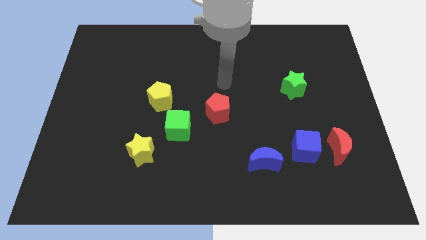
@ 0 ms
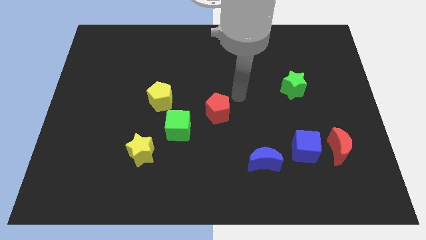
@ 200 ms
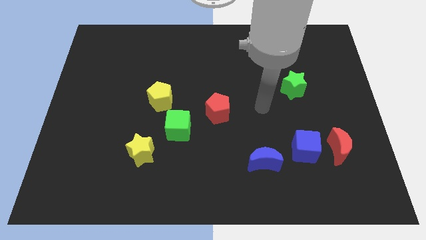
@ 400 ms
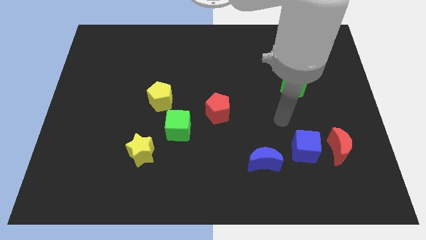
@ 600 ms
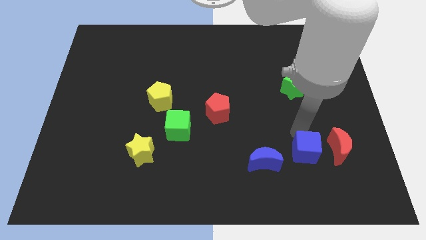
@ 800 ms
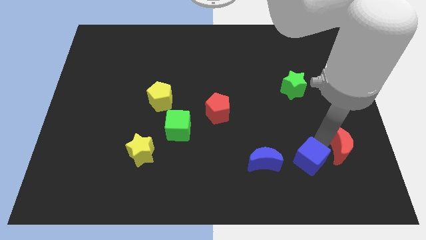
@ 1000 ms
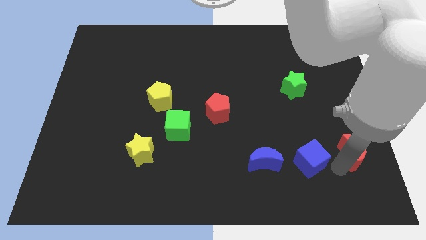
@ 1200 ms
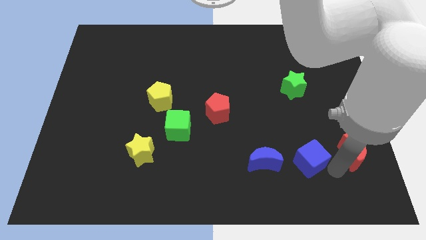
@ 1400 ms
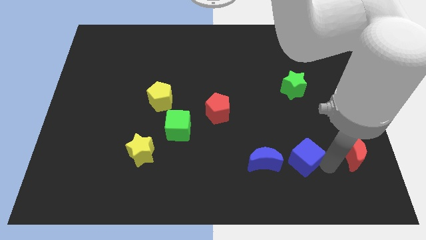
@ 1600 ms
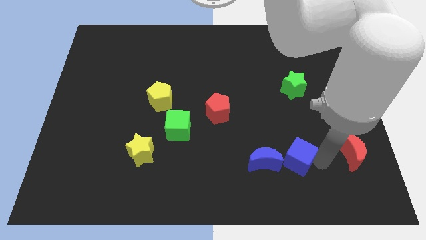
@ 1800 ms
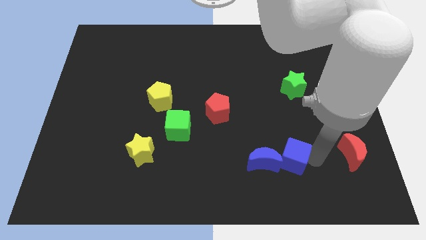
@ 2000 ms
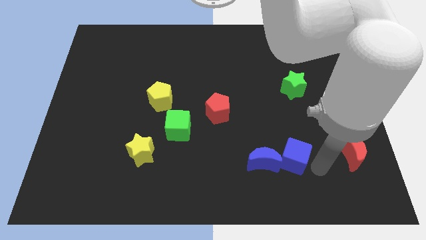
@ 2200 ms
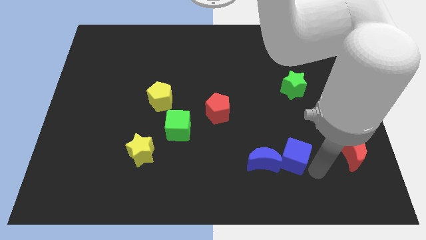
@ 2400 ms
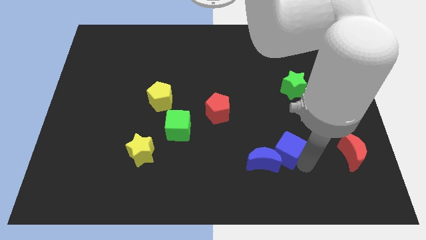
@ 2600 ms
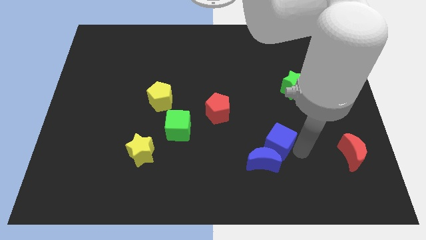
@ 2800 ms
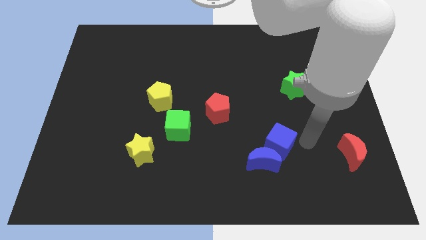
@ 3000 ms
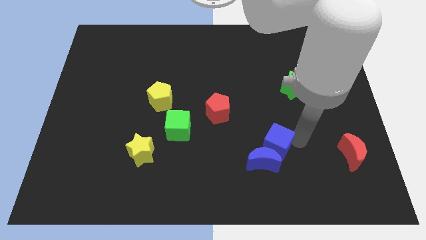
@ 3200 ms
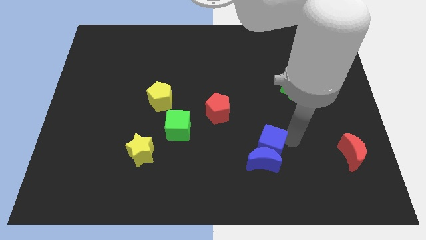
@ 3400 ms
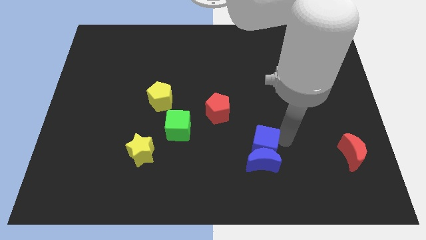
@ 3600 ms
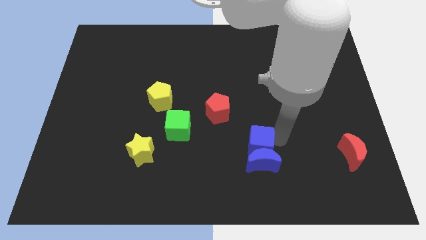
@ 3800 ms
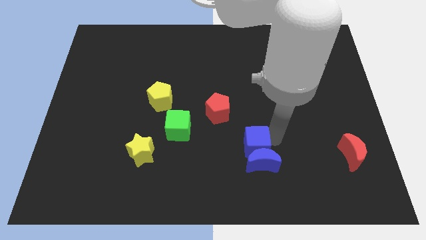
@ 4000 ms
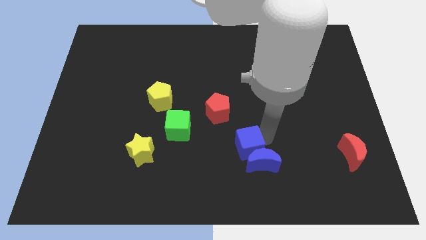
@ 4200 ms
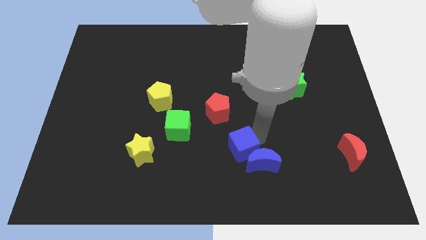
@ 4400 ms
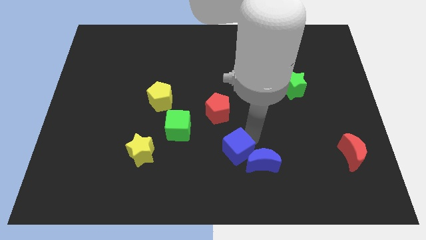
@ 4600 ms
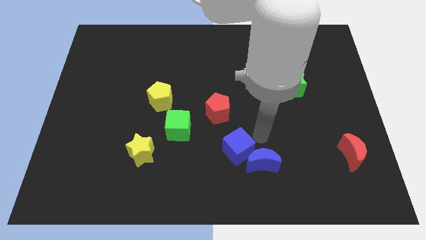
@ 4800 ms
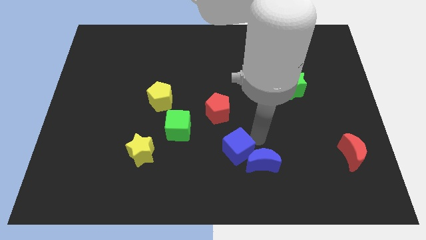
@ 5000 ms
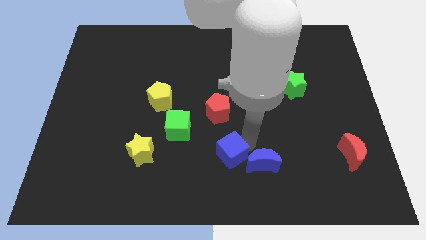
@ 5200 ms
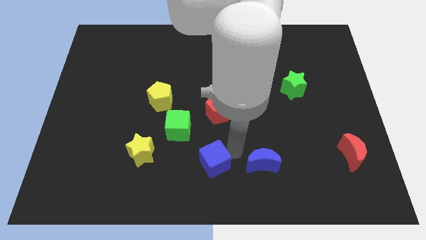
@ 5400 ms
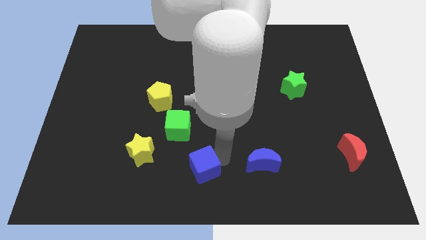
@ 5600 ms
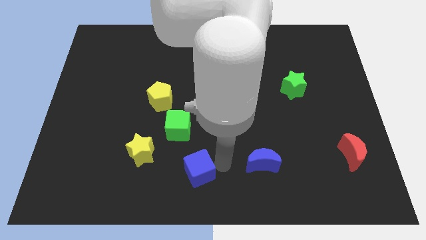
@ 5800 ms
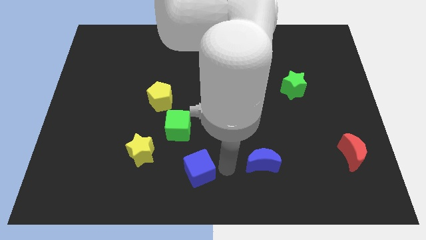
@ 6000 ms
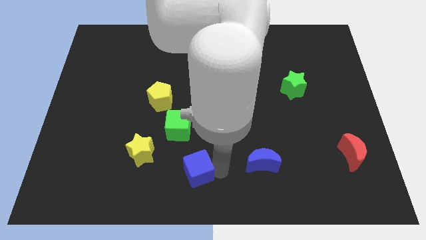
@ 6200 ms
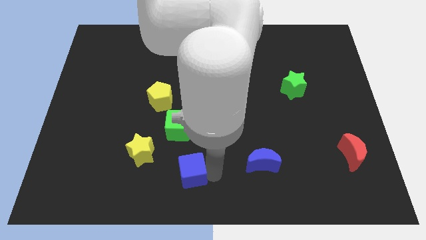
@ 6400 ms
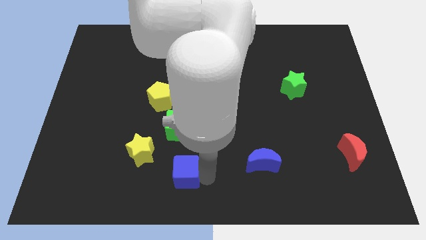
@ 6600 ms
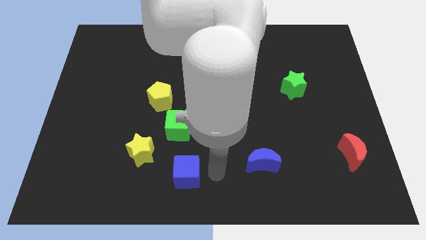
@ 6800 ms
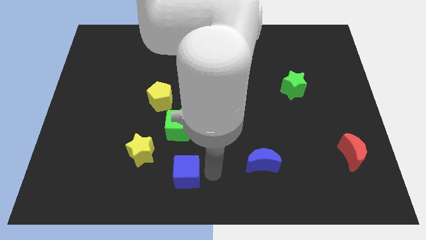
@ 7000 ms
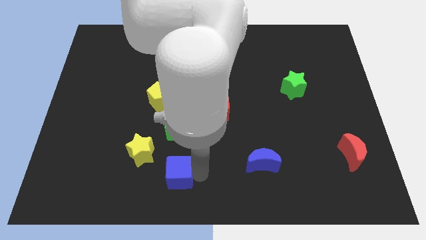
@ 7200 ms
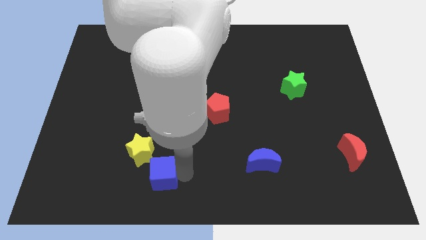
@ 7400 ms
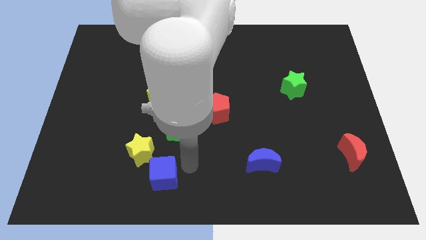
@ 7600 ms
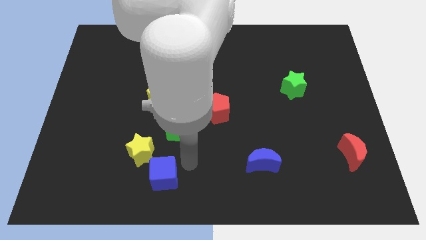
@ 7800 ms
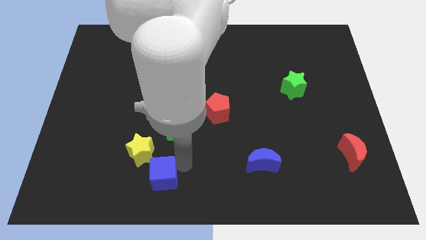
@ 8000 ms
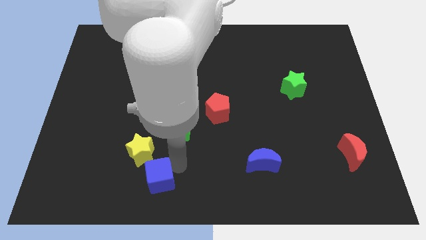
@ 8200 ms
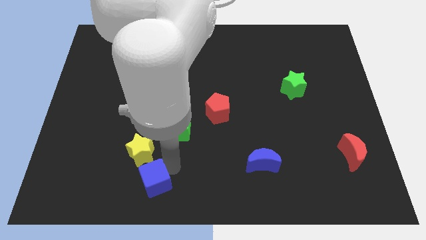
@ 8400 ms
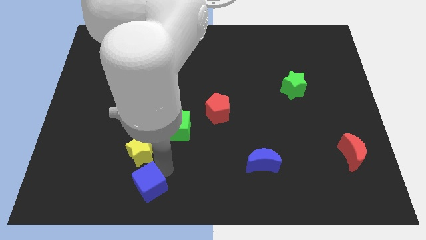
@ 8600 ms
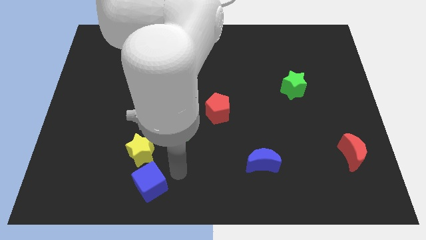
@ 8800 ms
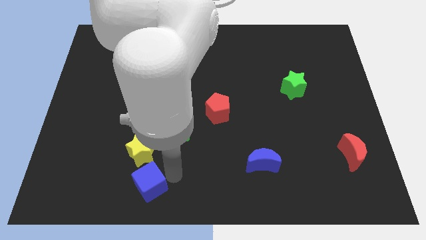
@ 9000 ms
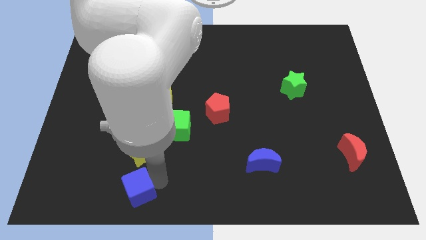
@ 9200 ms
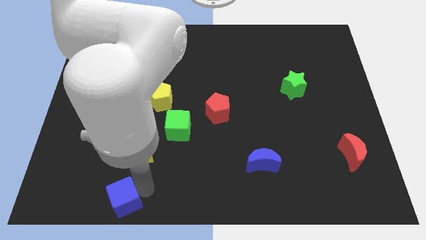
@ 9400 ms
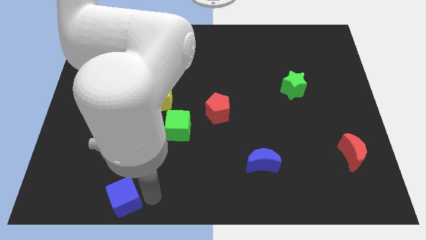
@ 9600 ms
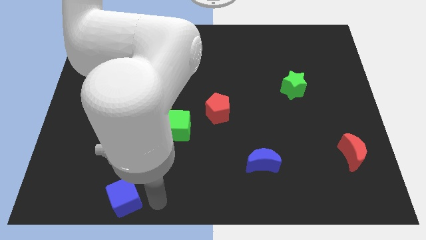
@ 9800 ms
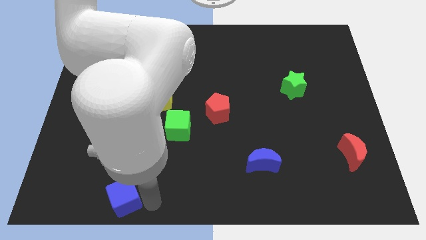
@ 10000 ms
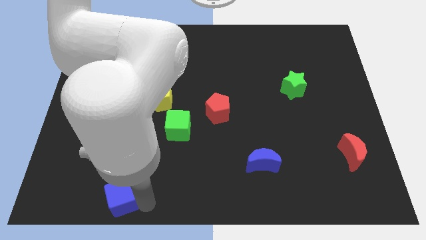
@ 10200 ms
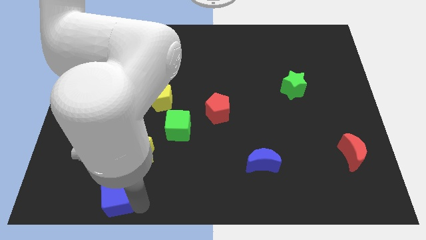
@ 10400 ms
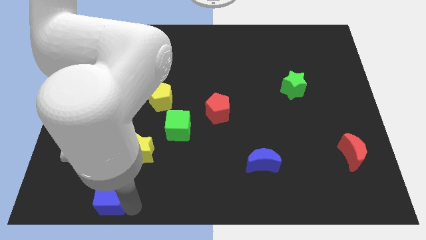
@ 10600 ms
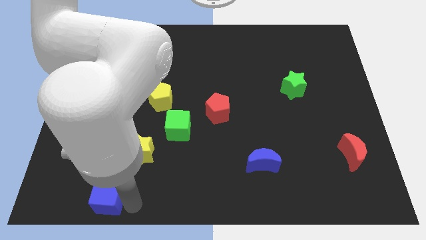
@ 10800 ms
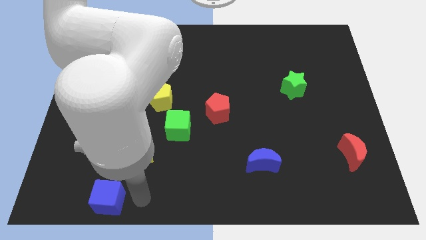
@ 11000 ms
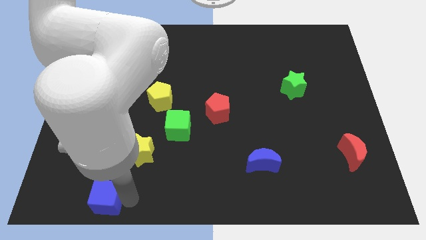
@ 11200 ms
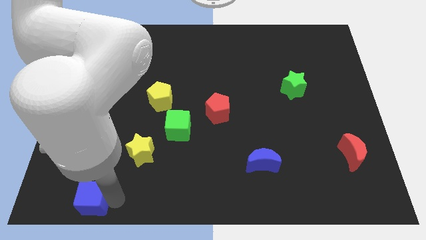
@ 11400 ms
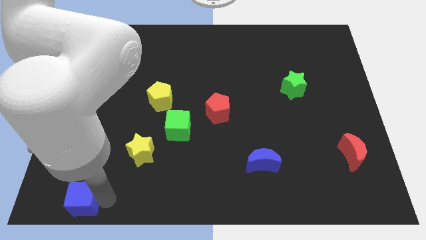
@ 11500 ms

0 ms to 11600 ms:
move the blue cube to the bottom left of the board

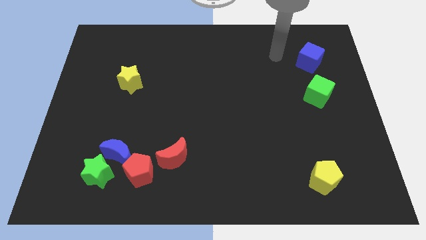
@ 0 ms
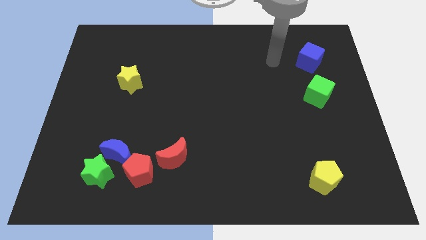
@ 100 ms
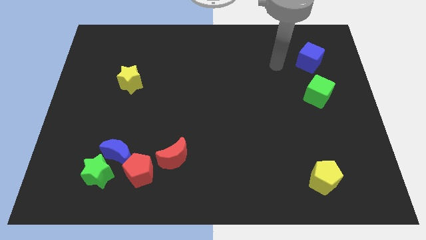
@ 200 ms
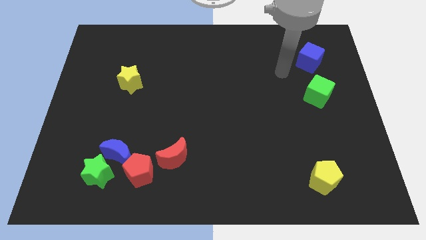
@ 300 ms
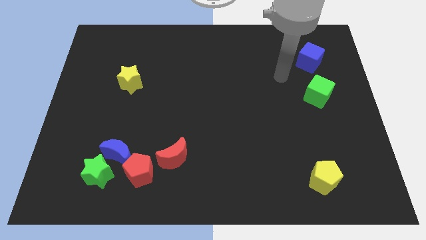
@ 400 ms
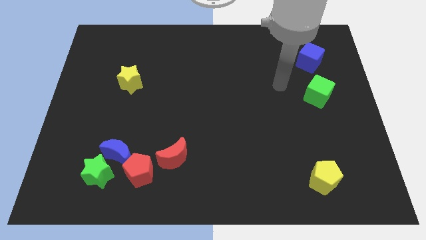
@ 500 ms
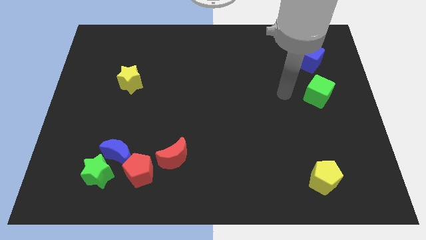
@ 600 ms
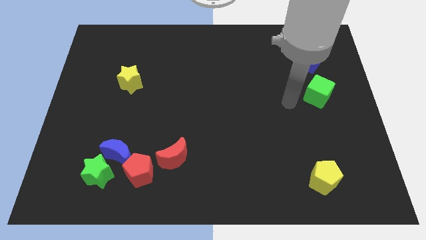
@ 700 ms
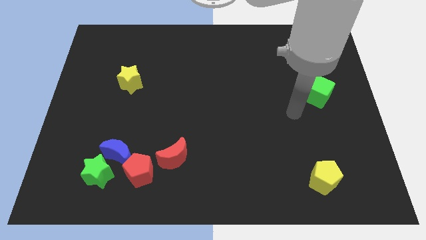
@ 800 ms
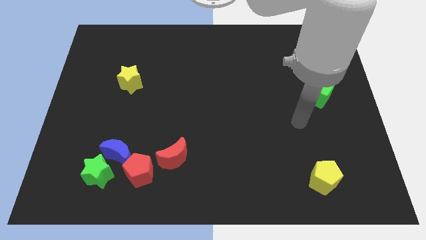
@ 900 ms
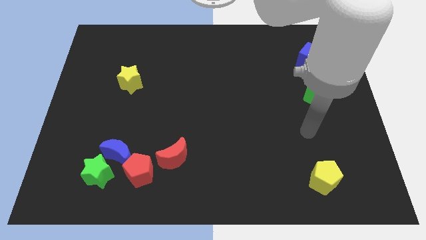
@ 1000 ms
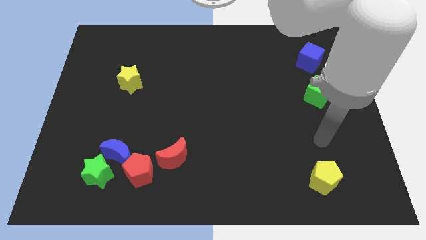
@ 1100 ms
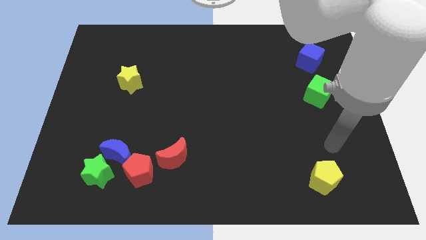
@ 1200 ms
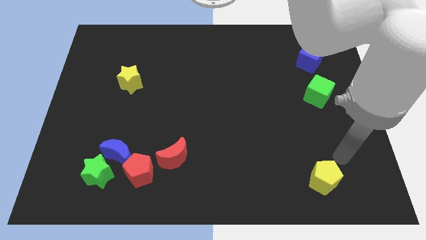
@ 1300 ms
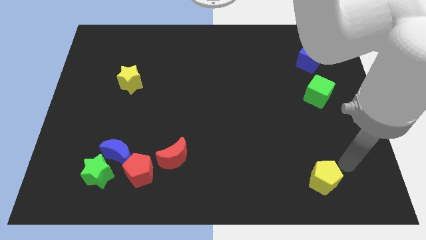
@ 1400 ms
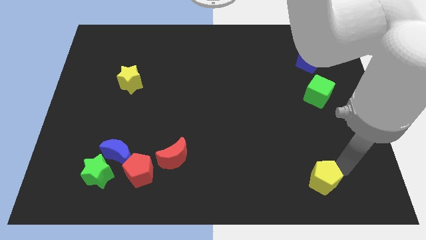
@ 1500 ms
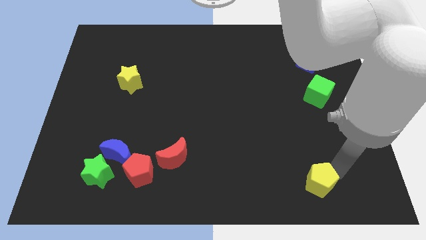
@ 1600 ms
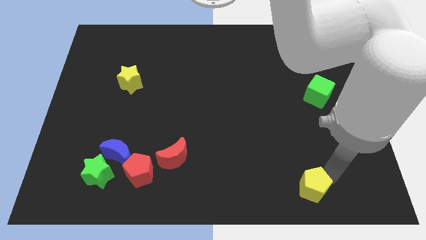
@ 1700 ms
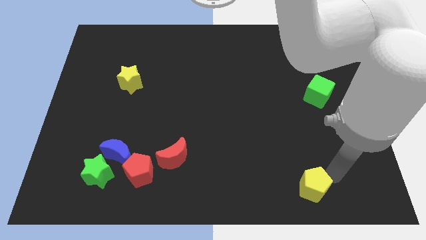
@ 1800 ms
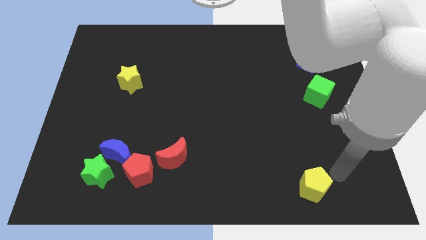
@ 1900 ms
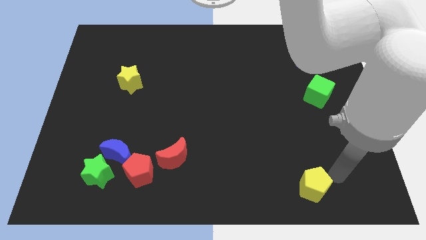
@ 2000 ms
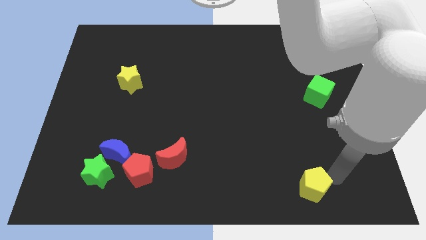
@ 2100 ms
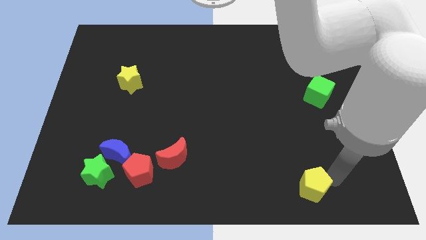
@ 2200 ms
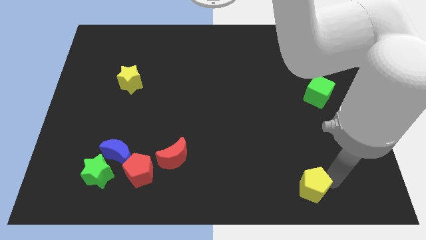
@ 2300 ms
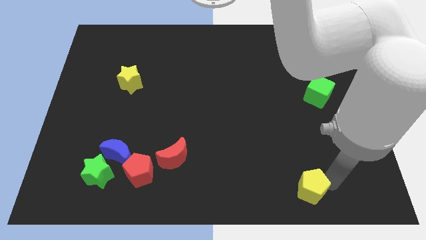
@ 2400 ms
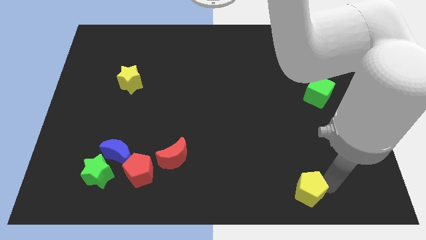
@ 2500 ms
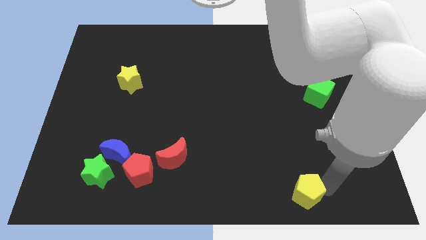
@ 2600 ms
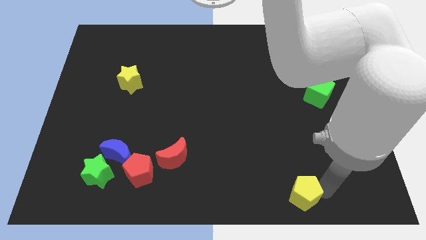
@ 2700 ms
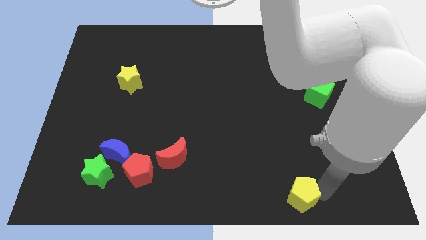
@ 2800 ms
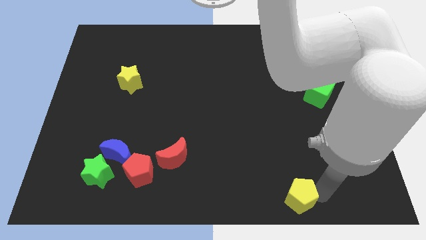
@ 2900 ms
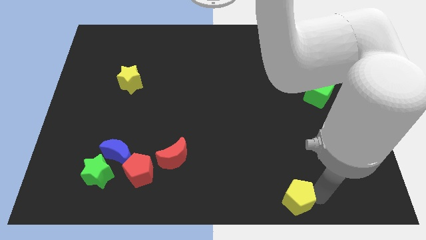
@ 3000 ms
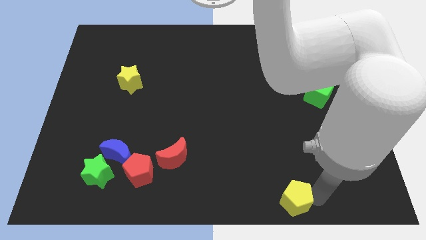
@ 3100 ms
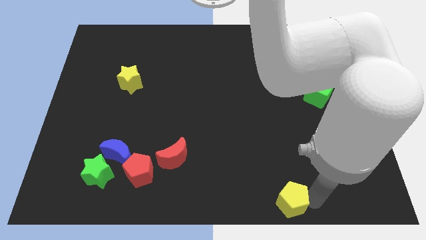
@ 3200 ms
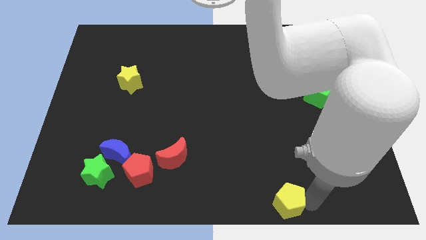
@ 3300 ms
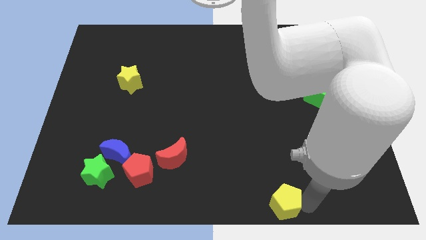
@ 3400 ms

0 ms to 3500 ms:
push the yellow pentagon to the bottom
